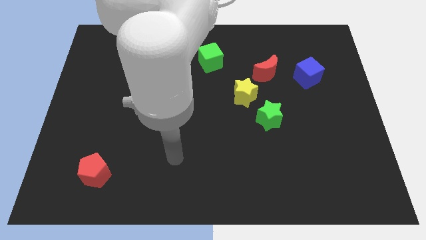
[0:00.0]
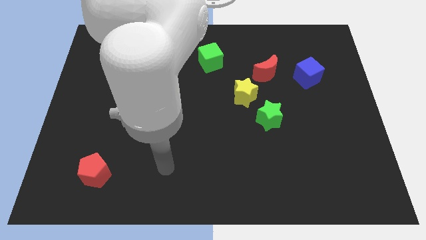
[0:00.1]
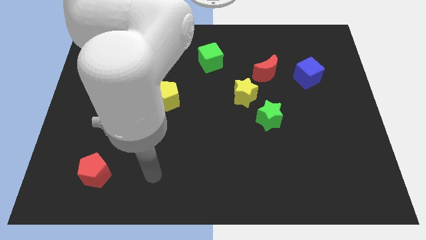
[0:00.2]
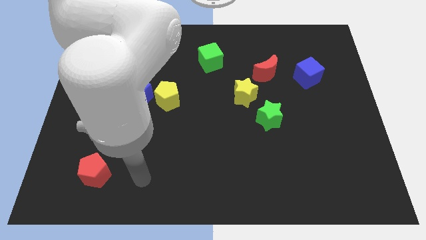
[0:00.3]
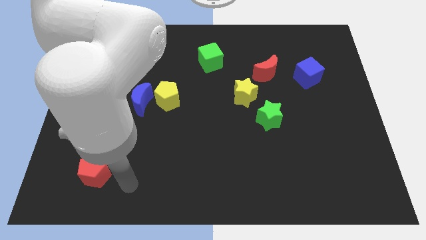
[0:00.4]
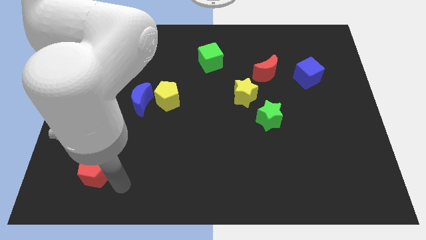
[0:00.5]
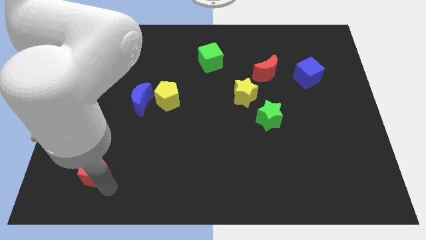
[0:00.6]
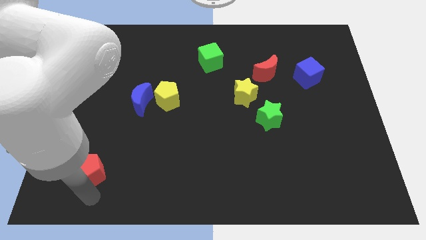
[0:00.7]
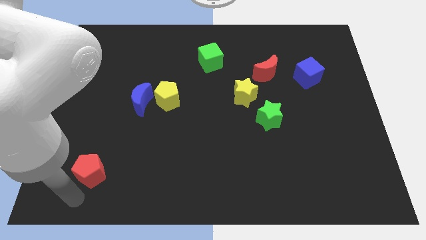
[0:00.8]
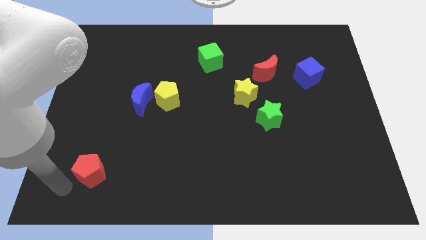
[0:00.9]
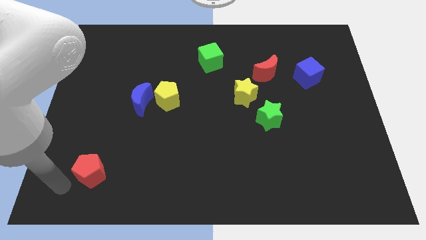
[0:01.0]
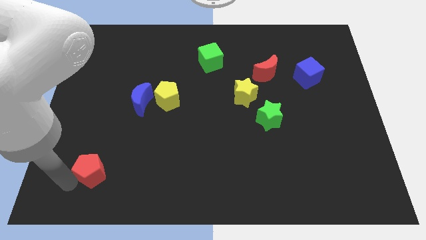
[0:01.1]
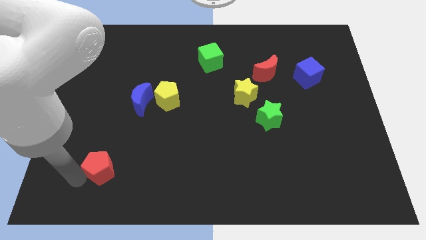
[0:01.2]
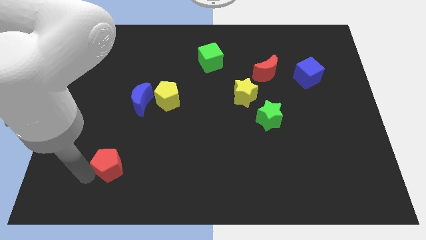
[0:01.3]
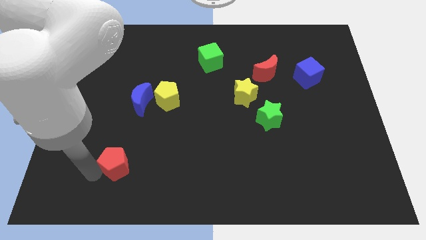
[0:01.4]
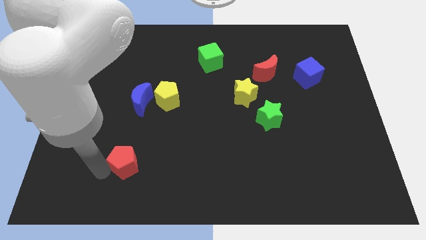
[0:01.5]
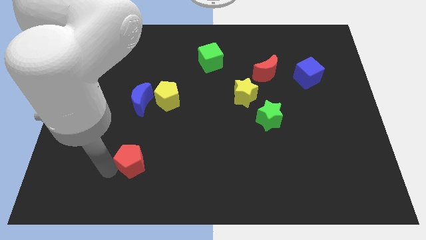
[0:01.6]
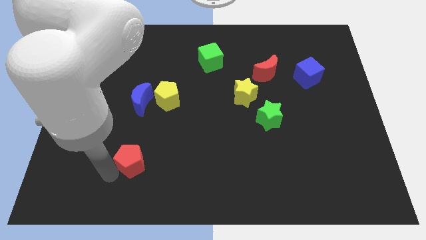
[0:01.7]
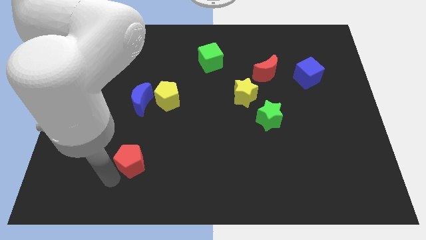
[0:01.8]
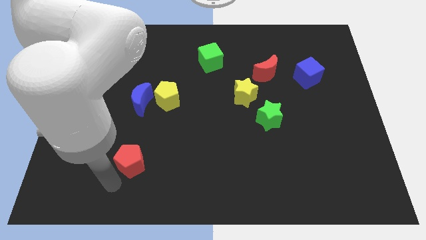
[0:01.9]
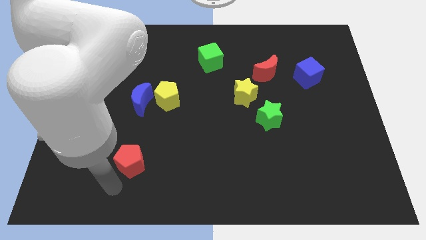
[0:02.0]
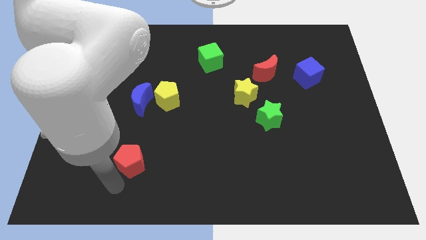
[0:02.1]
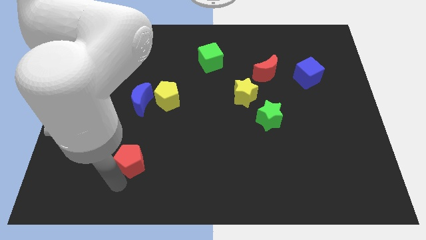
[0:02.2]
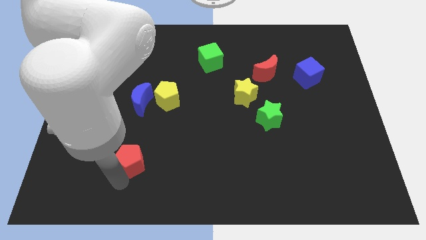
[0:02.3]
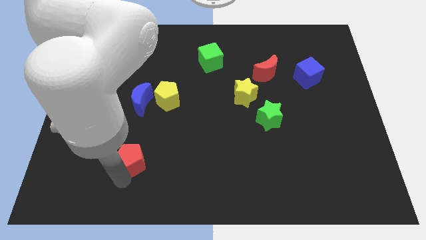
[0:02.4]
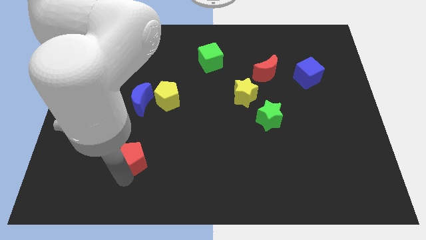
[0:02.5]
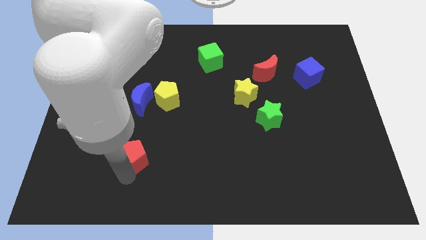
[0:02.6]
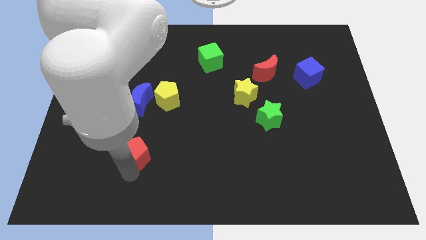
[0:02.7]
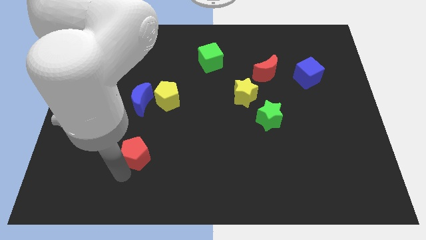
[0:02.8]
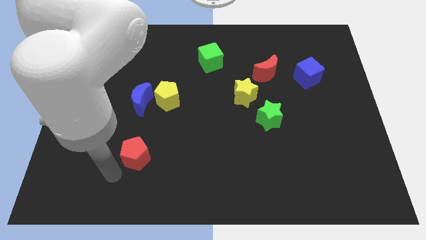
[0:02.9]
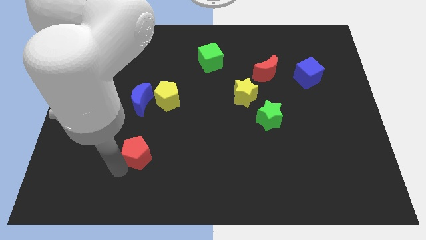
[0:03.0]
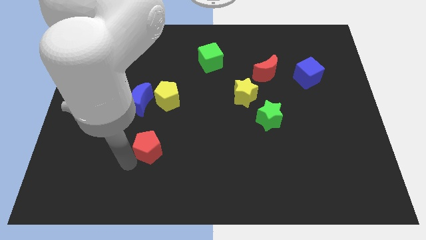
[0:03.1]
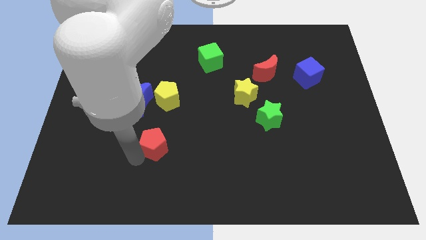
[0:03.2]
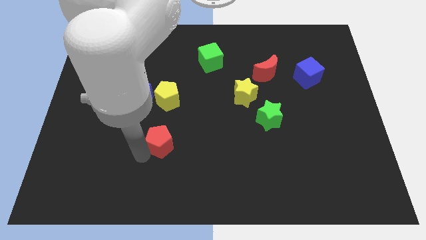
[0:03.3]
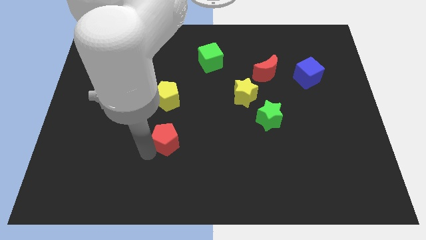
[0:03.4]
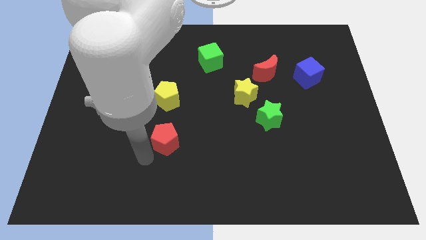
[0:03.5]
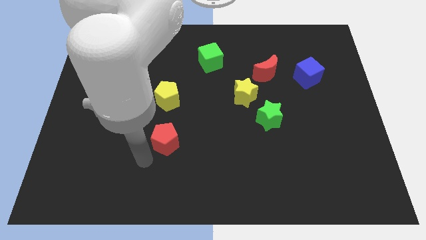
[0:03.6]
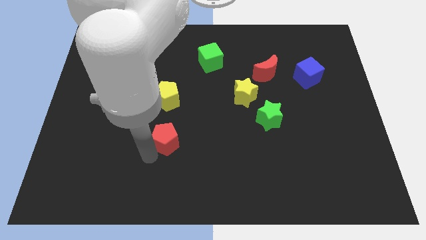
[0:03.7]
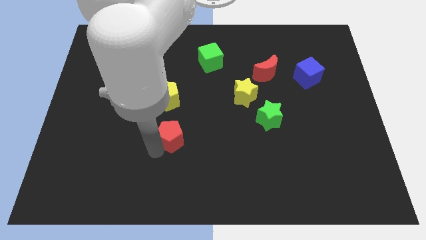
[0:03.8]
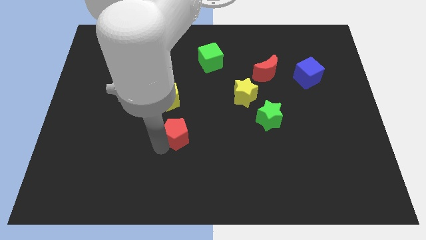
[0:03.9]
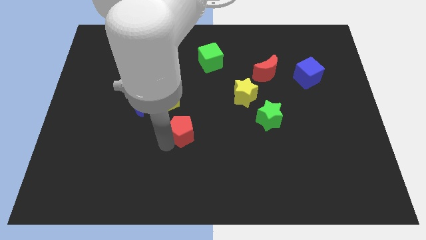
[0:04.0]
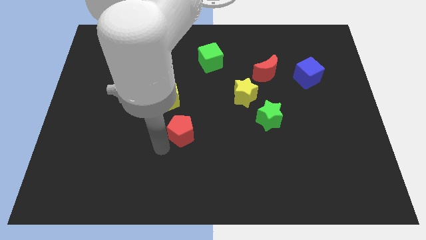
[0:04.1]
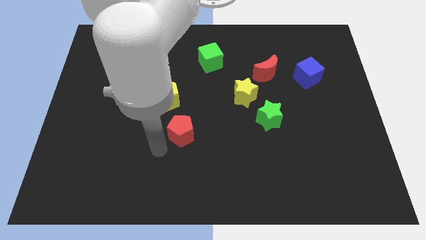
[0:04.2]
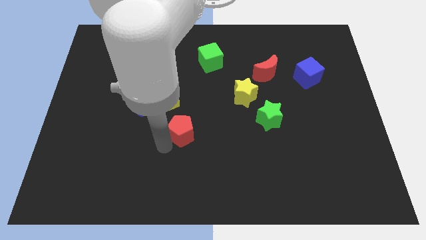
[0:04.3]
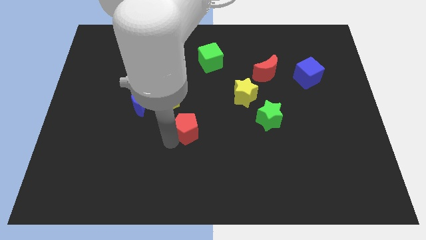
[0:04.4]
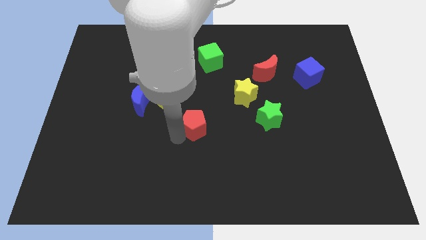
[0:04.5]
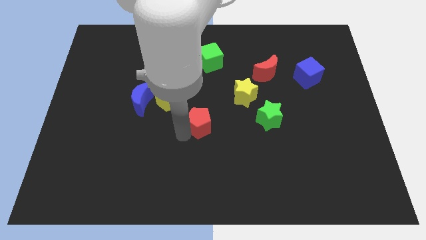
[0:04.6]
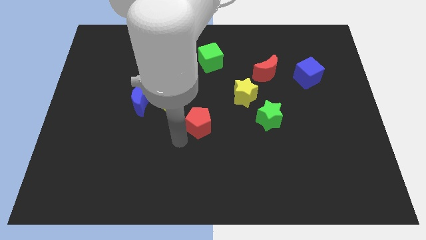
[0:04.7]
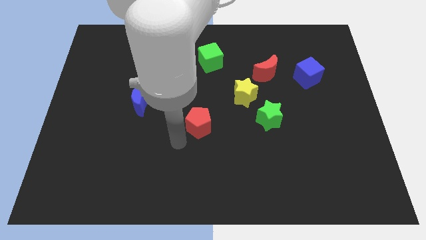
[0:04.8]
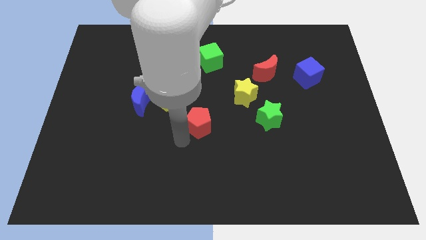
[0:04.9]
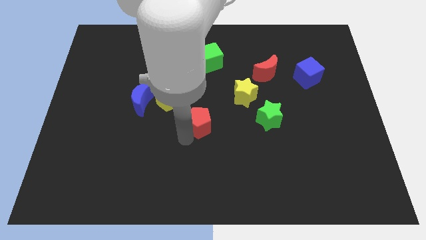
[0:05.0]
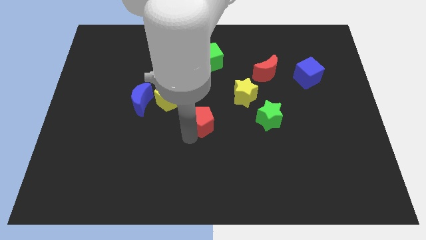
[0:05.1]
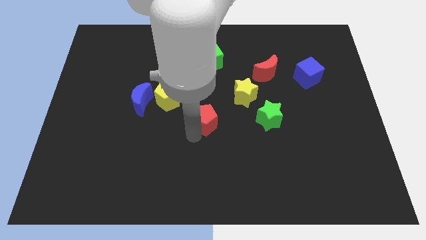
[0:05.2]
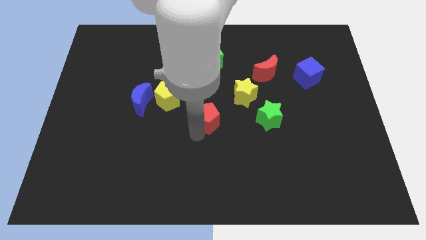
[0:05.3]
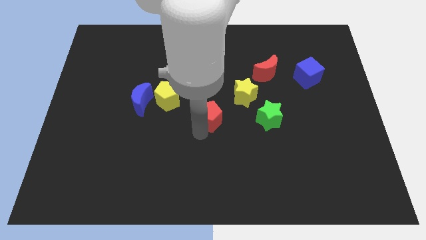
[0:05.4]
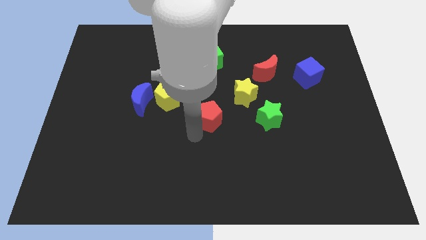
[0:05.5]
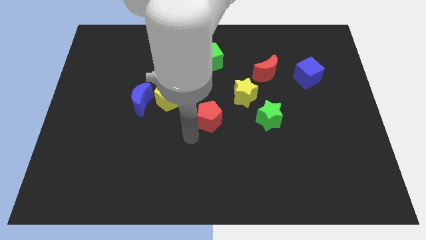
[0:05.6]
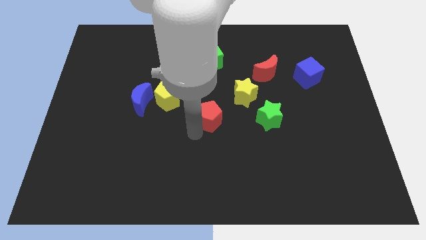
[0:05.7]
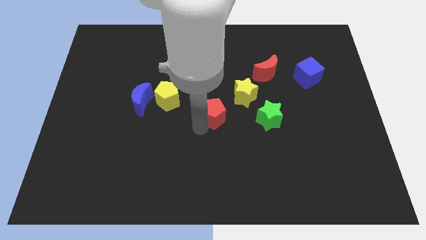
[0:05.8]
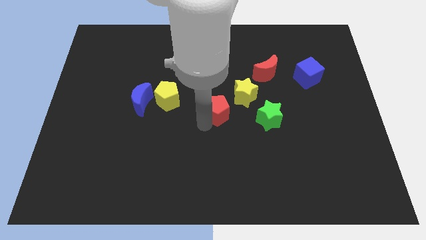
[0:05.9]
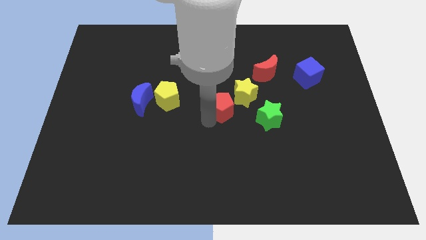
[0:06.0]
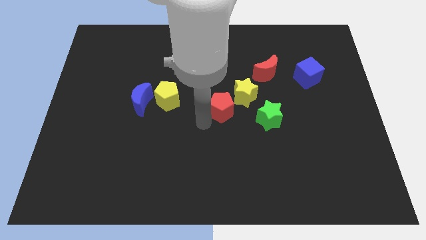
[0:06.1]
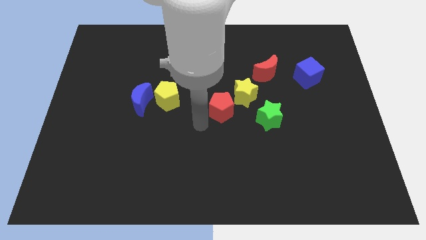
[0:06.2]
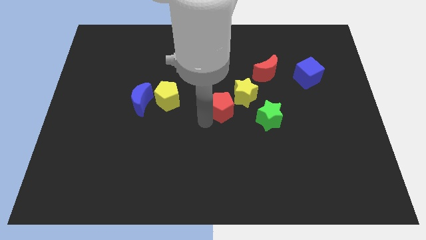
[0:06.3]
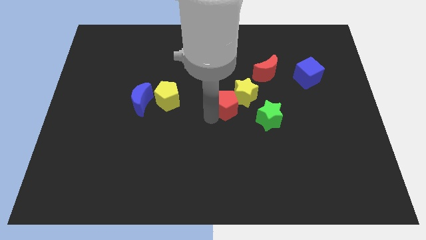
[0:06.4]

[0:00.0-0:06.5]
move the red pentagon to the yellow star

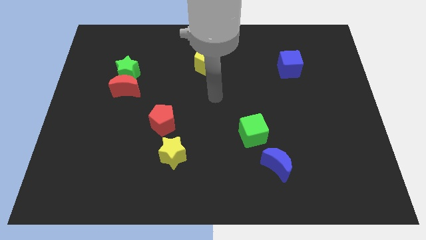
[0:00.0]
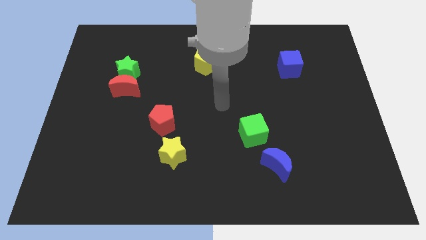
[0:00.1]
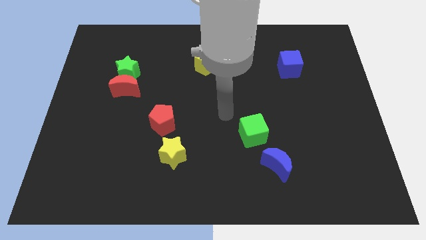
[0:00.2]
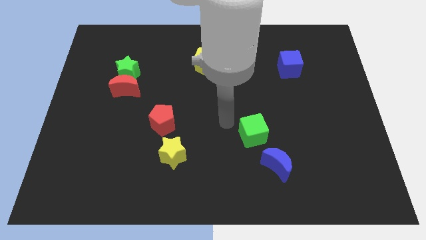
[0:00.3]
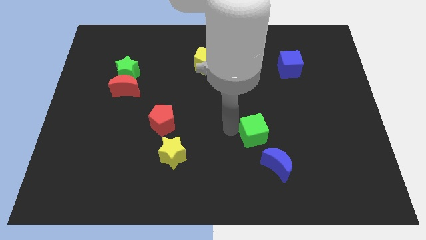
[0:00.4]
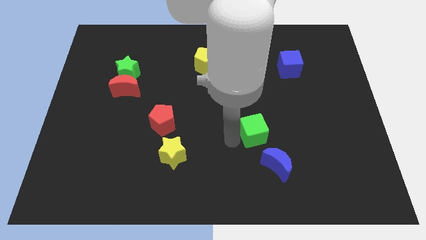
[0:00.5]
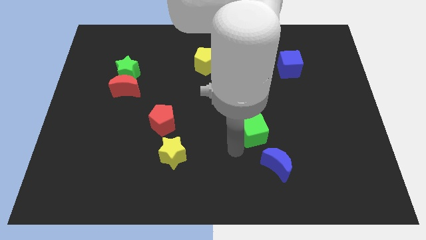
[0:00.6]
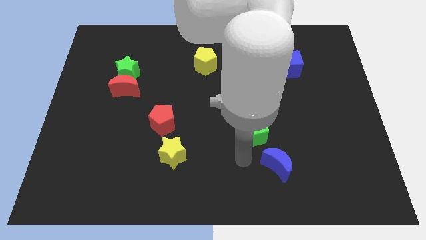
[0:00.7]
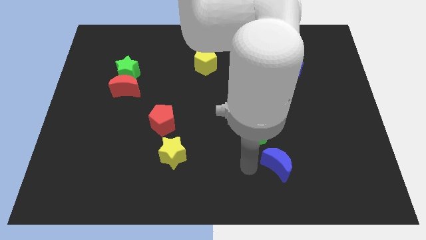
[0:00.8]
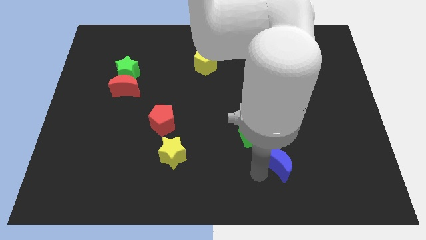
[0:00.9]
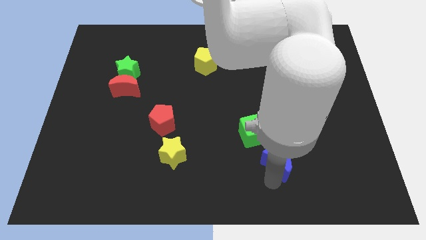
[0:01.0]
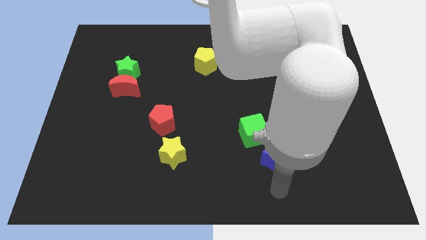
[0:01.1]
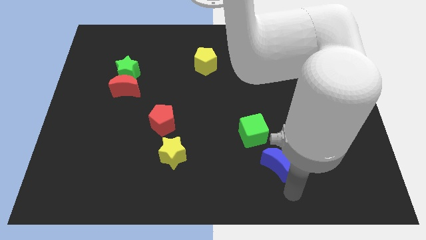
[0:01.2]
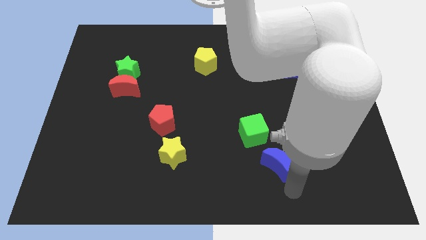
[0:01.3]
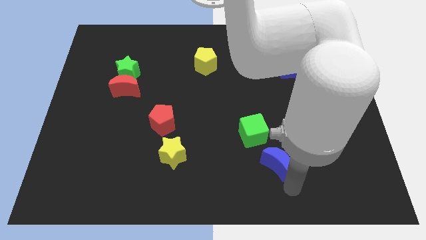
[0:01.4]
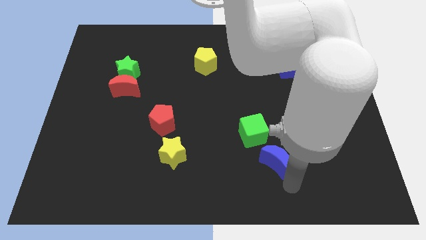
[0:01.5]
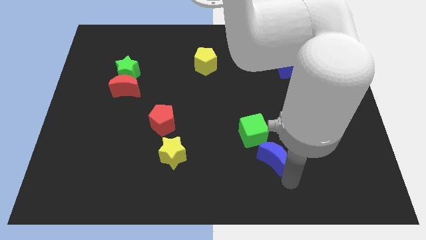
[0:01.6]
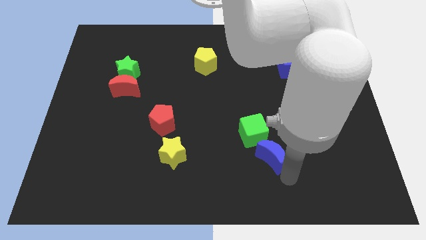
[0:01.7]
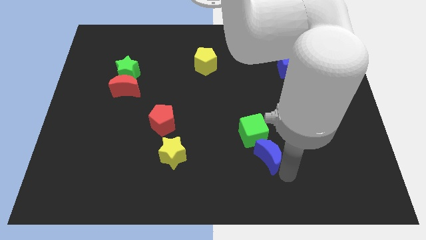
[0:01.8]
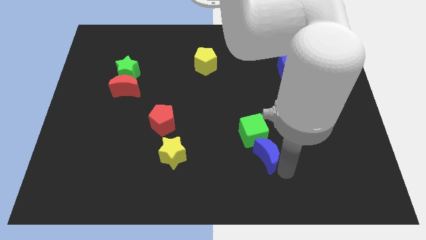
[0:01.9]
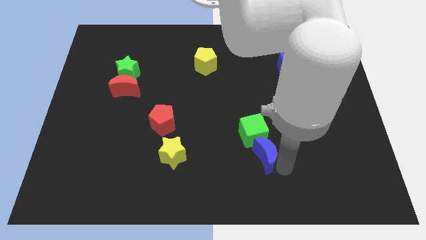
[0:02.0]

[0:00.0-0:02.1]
move the blue moon towards the green cube
